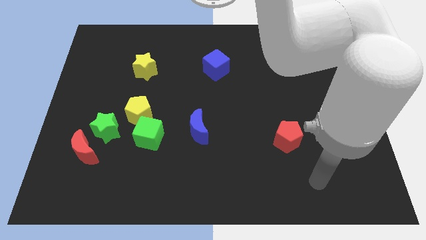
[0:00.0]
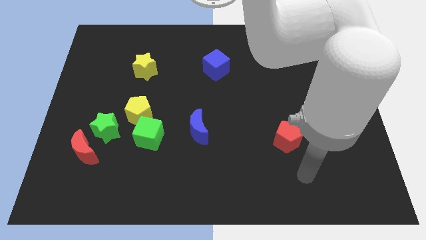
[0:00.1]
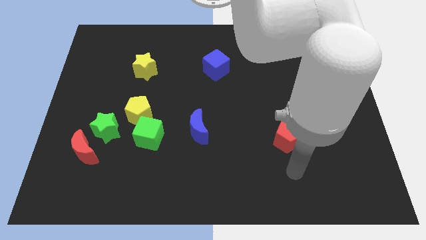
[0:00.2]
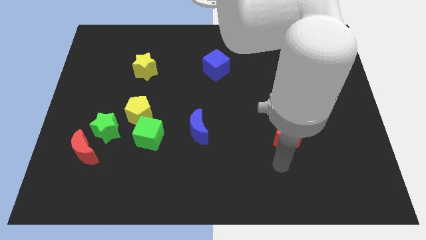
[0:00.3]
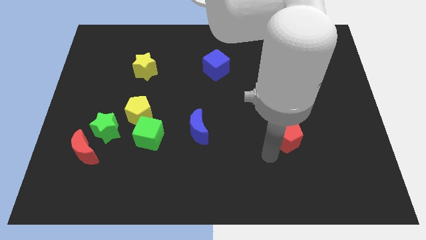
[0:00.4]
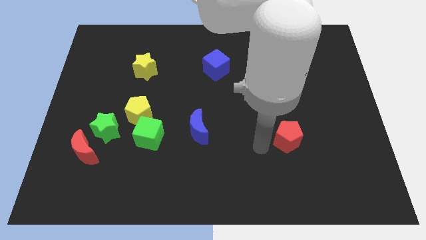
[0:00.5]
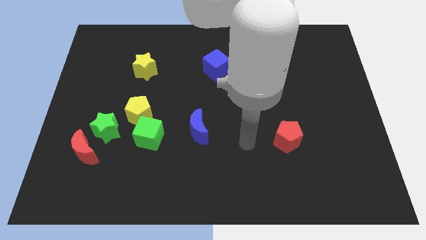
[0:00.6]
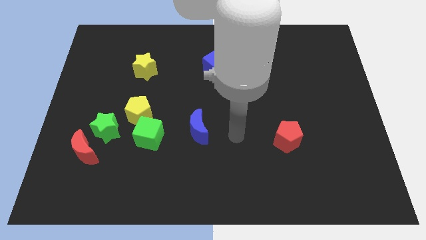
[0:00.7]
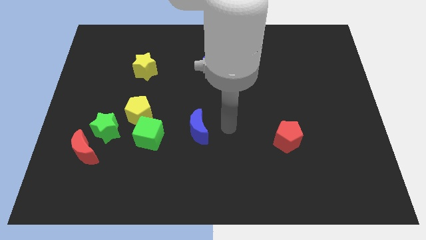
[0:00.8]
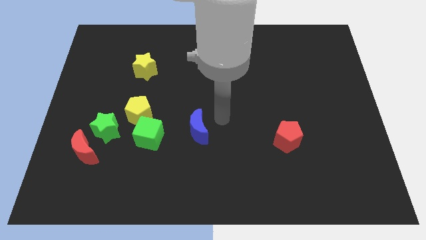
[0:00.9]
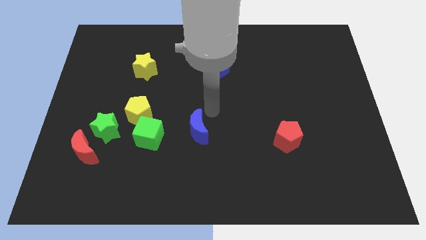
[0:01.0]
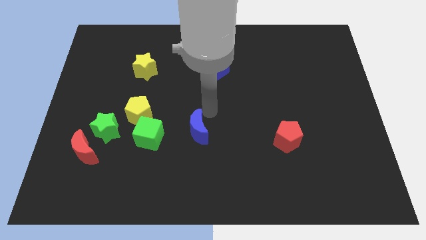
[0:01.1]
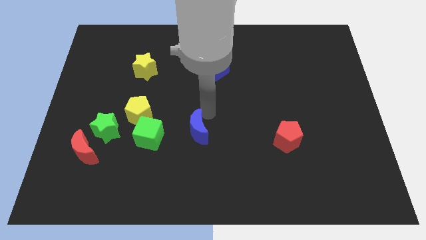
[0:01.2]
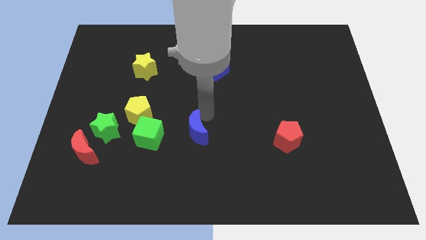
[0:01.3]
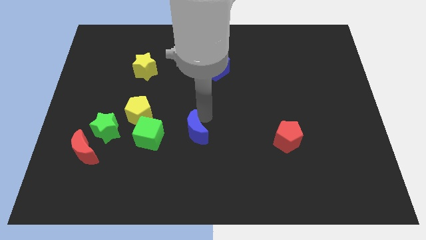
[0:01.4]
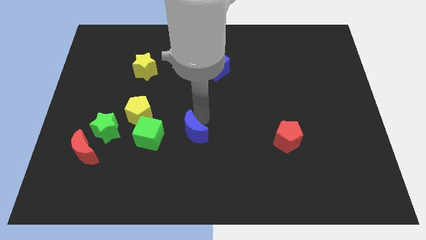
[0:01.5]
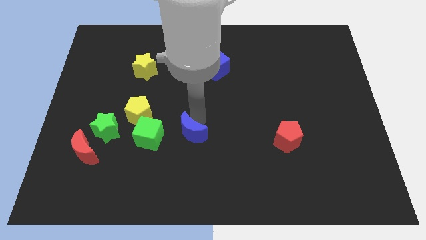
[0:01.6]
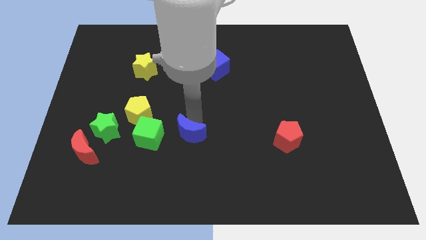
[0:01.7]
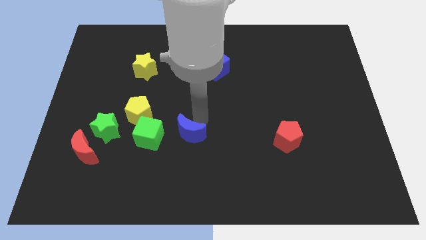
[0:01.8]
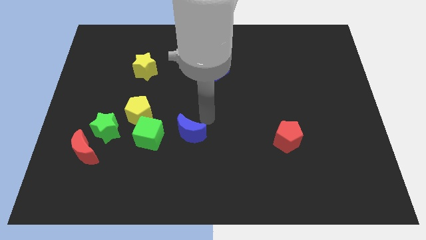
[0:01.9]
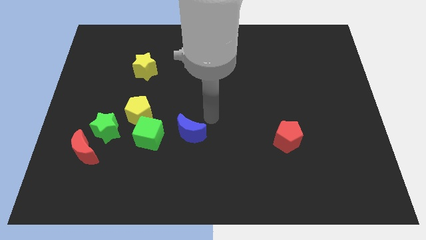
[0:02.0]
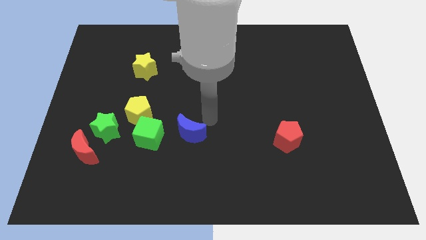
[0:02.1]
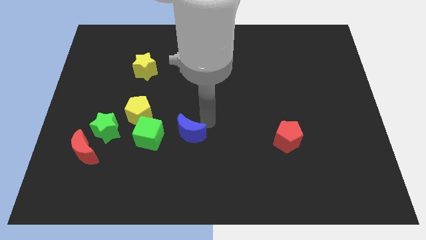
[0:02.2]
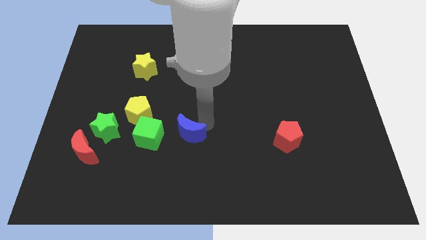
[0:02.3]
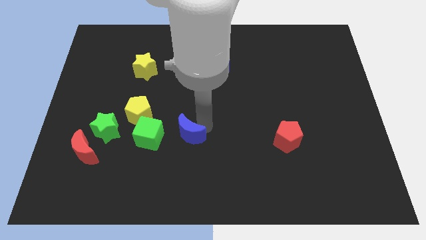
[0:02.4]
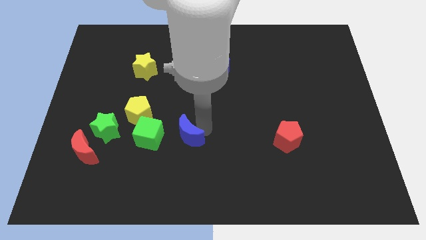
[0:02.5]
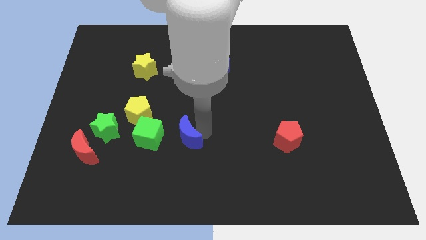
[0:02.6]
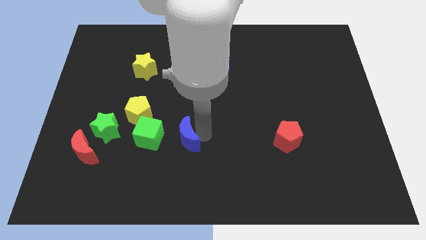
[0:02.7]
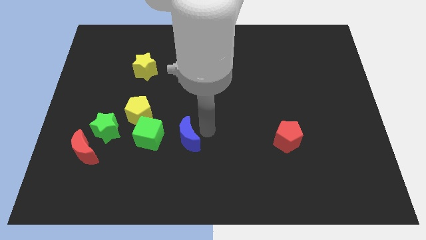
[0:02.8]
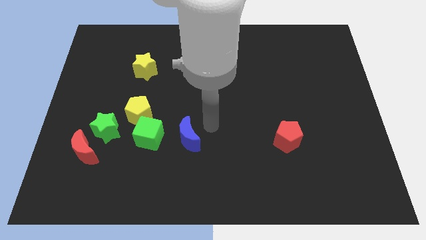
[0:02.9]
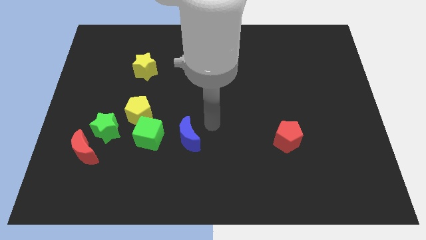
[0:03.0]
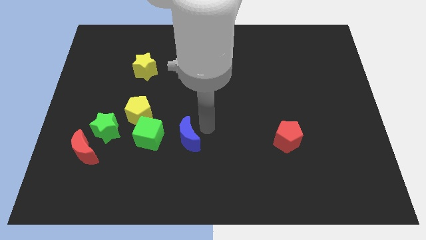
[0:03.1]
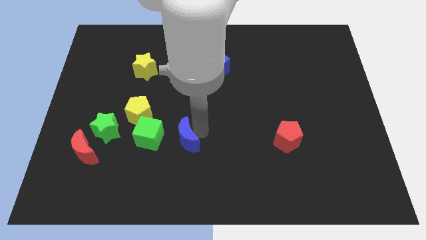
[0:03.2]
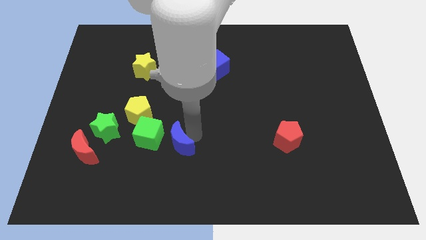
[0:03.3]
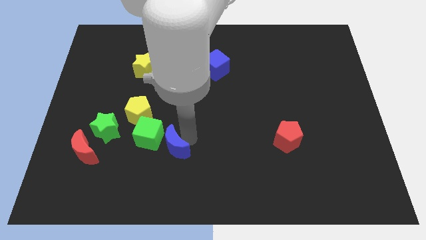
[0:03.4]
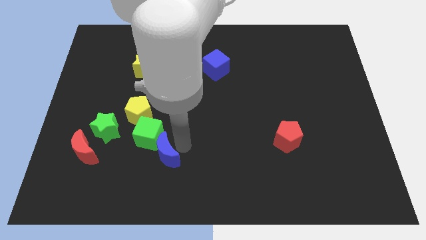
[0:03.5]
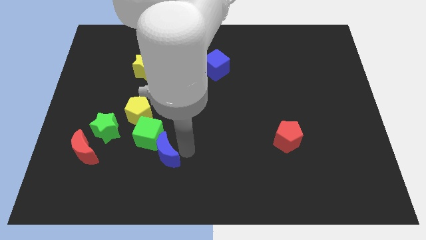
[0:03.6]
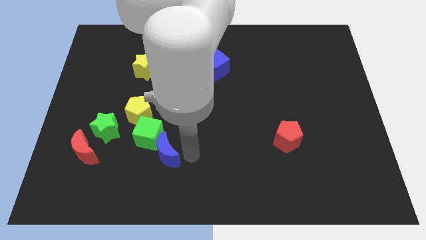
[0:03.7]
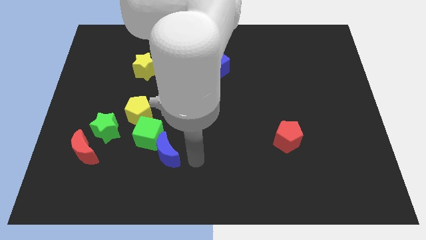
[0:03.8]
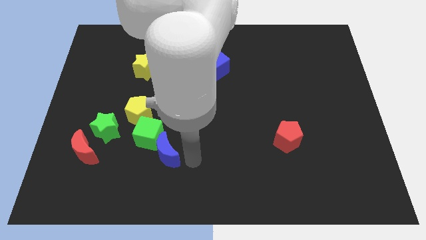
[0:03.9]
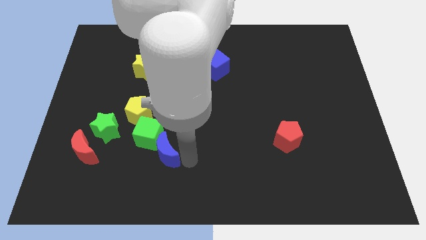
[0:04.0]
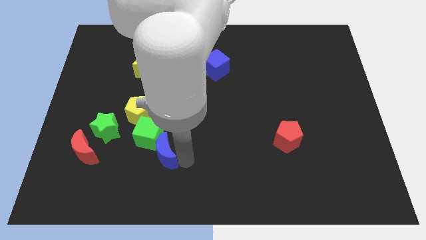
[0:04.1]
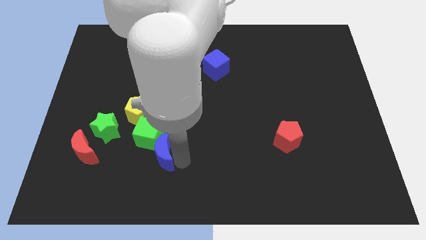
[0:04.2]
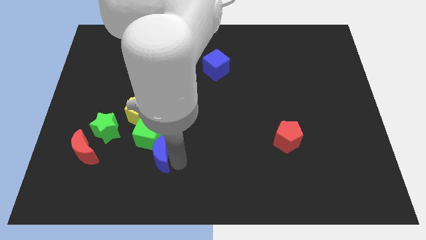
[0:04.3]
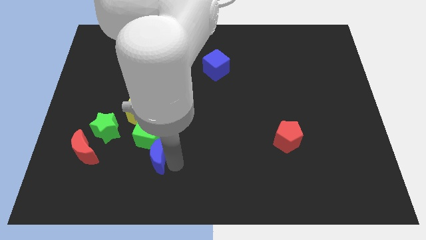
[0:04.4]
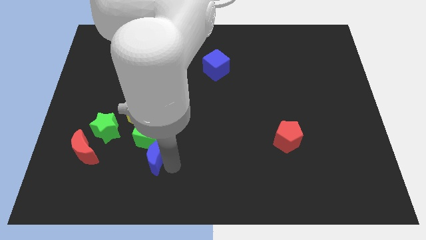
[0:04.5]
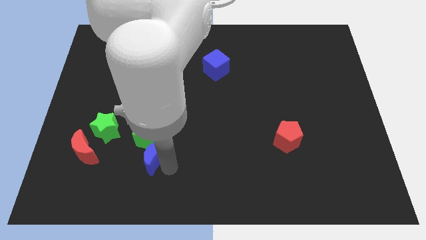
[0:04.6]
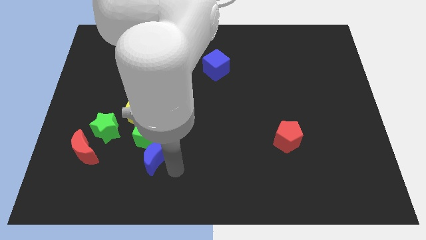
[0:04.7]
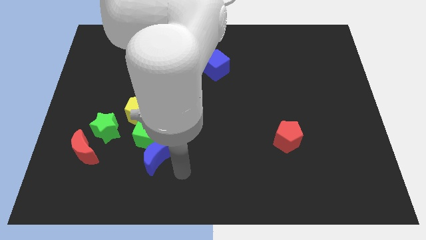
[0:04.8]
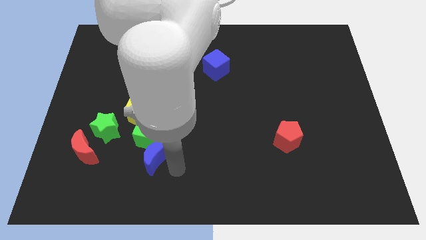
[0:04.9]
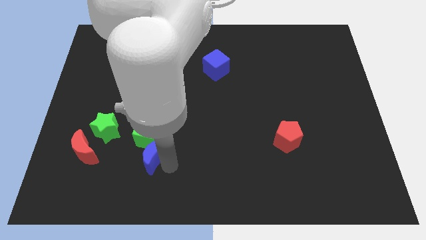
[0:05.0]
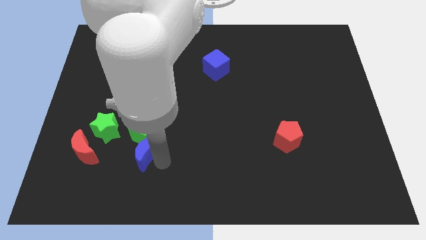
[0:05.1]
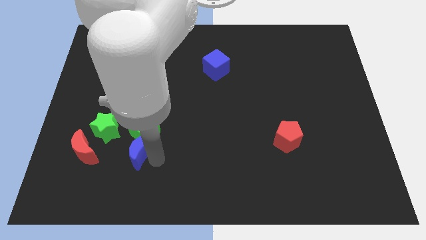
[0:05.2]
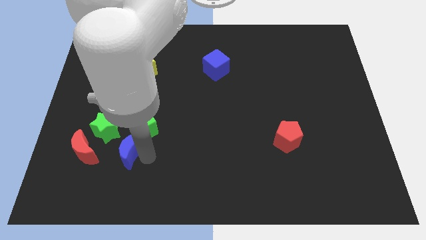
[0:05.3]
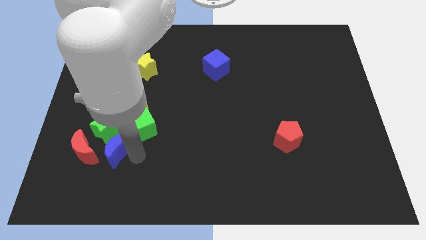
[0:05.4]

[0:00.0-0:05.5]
slide the blue moon next to the green star
